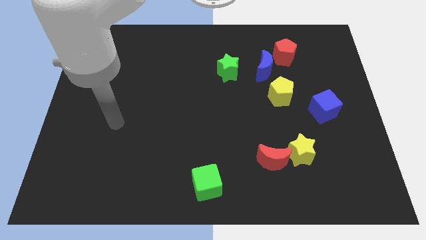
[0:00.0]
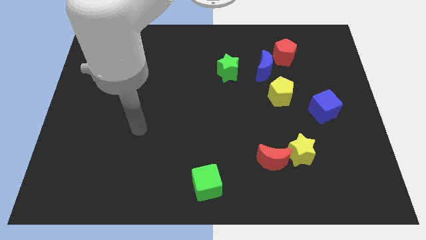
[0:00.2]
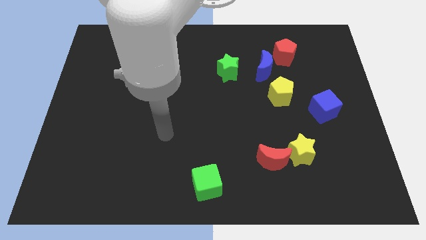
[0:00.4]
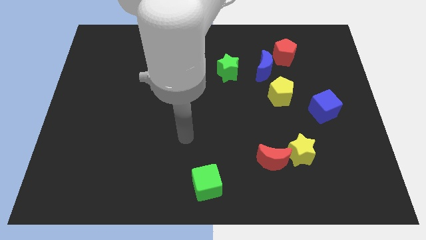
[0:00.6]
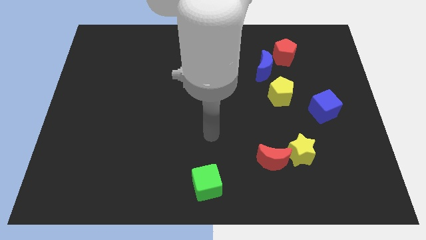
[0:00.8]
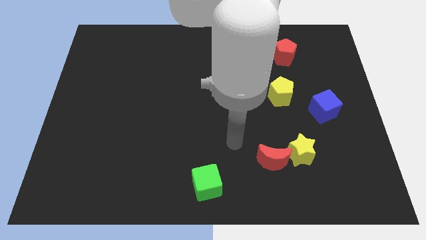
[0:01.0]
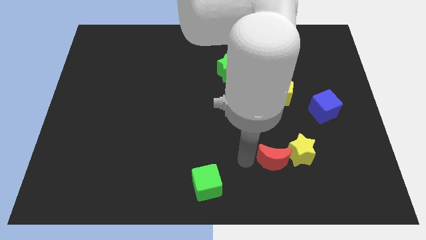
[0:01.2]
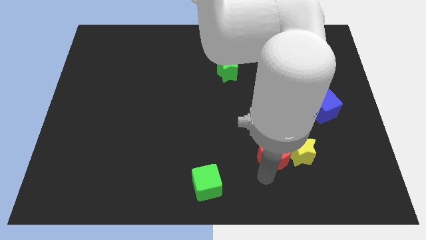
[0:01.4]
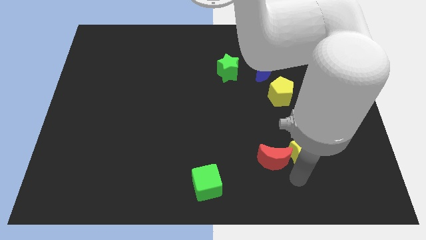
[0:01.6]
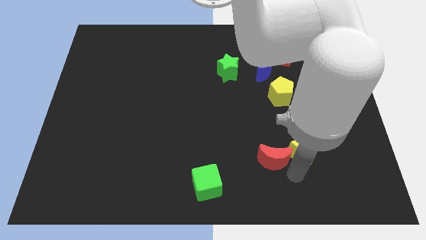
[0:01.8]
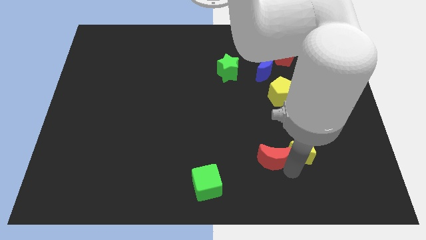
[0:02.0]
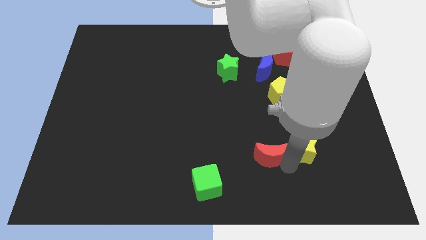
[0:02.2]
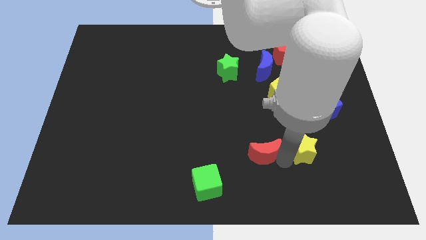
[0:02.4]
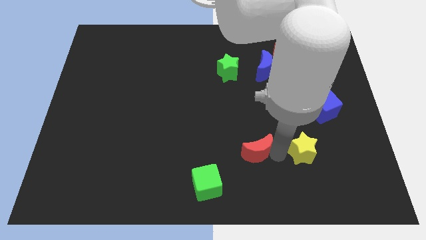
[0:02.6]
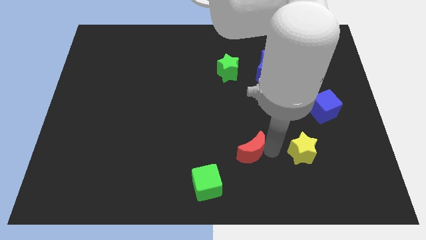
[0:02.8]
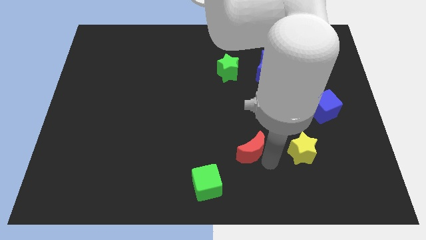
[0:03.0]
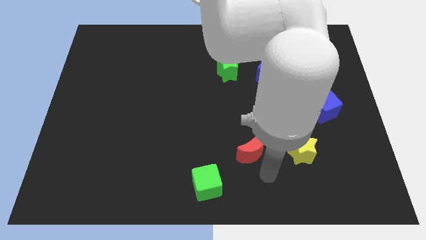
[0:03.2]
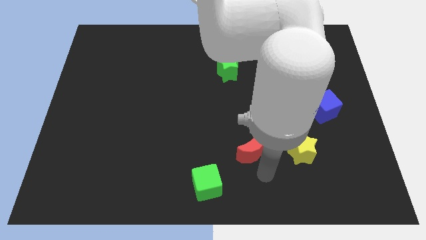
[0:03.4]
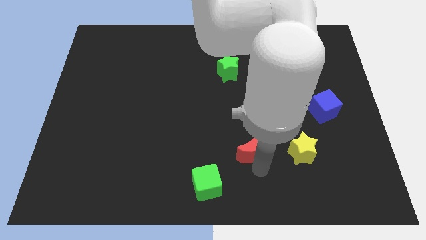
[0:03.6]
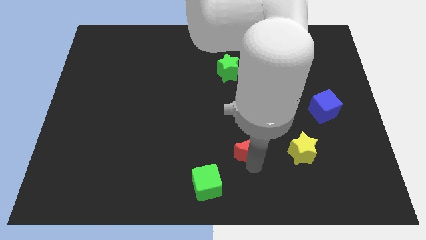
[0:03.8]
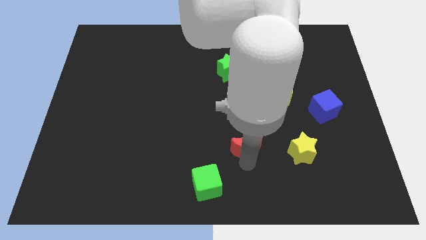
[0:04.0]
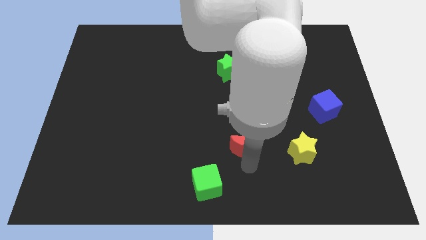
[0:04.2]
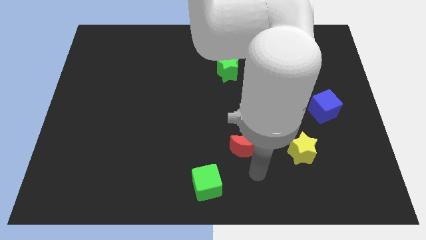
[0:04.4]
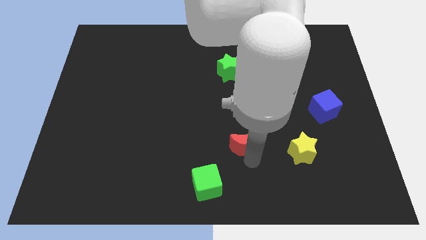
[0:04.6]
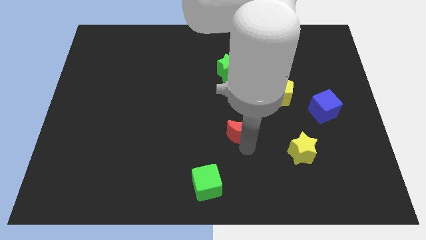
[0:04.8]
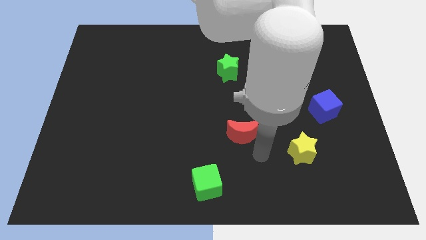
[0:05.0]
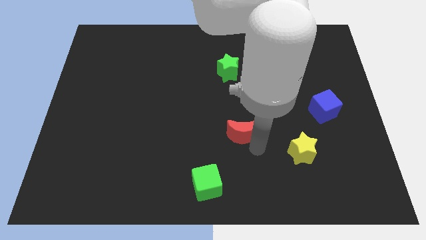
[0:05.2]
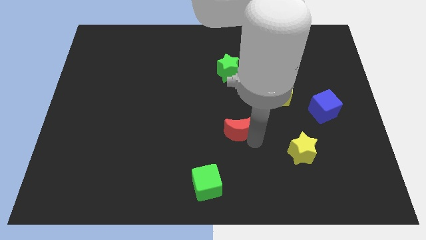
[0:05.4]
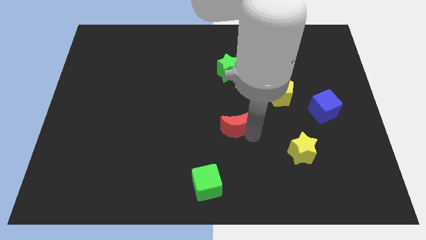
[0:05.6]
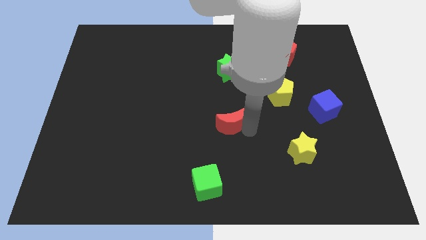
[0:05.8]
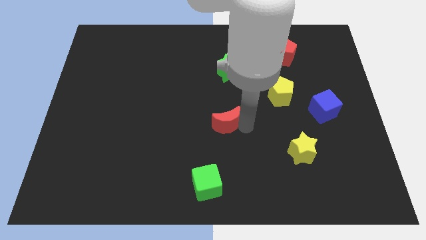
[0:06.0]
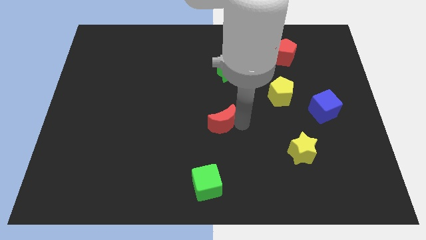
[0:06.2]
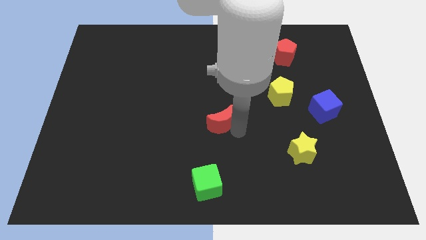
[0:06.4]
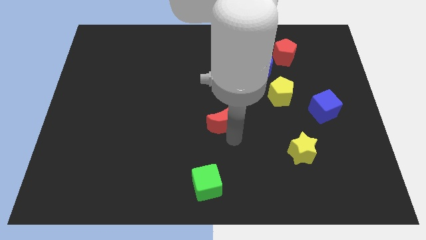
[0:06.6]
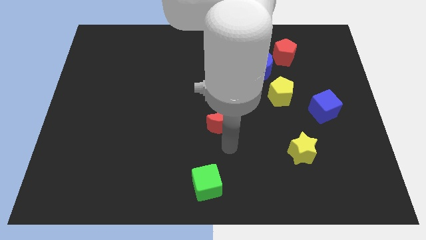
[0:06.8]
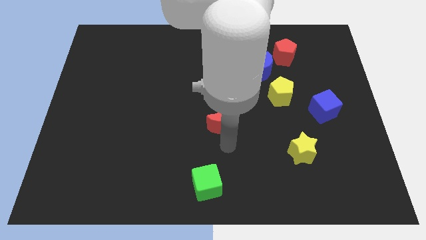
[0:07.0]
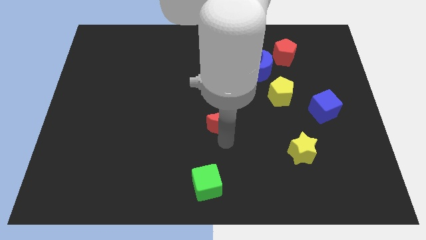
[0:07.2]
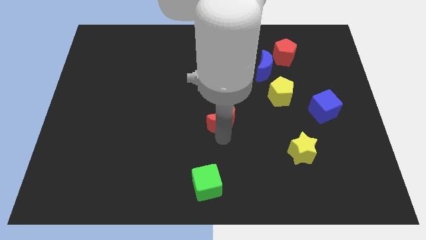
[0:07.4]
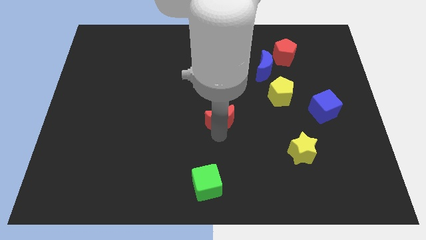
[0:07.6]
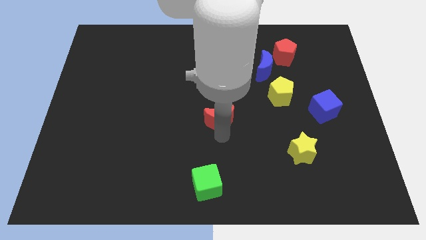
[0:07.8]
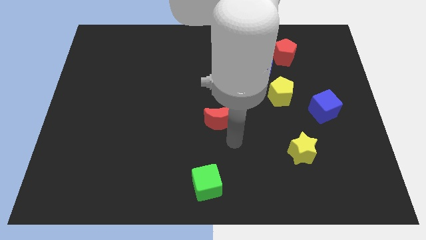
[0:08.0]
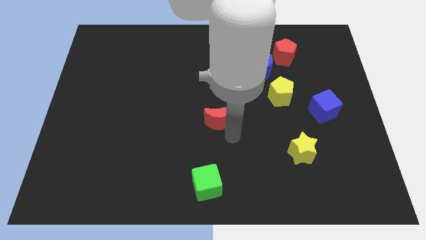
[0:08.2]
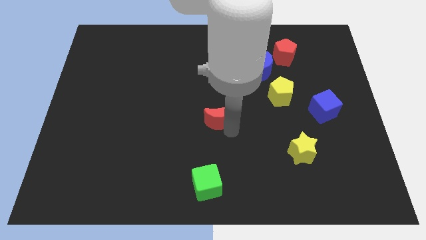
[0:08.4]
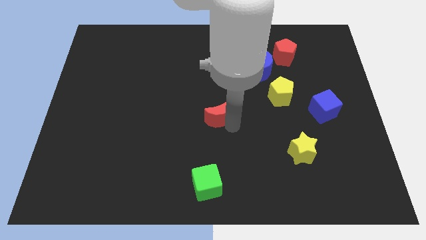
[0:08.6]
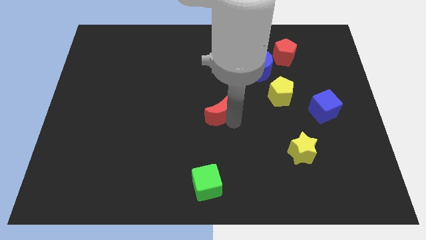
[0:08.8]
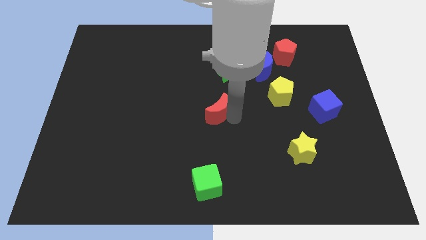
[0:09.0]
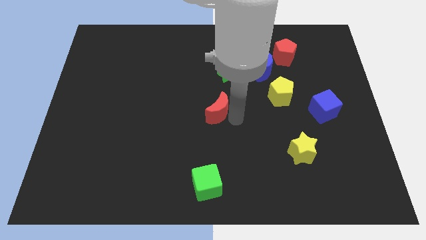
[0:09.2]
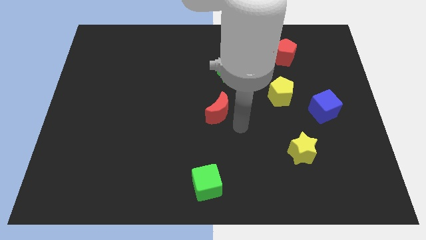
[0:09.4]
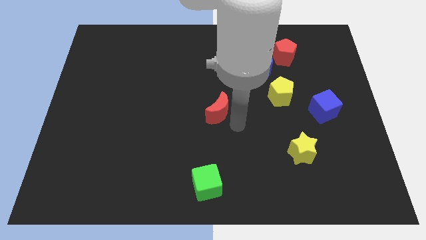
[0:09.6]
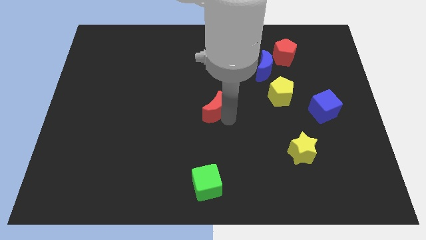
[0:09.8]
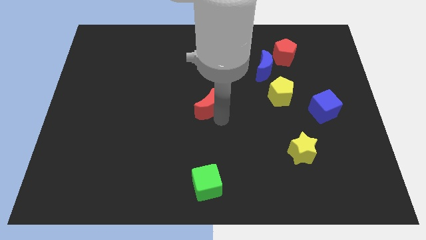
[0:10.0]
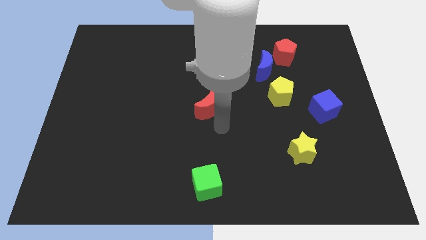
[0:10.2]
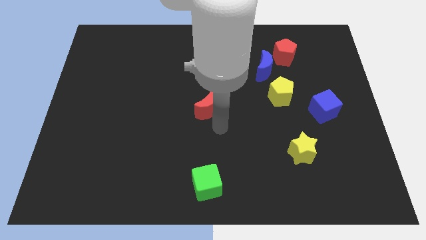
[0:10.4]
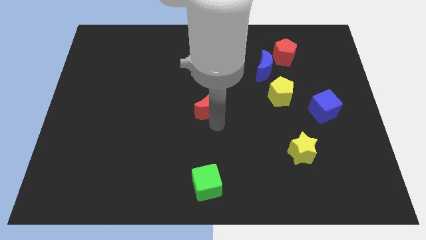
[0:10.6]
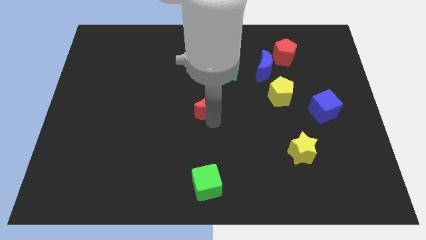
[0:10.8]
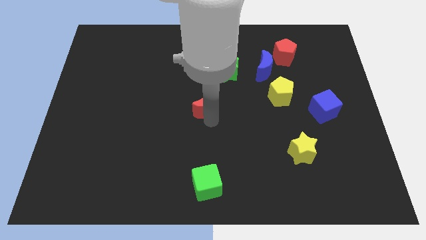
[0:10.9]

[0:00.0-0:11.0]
push the red moon diagonally up and left

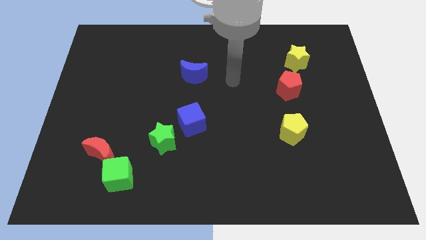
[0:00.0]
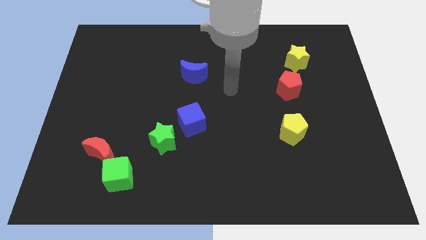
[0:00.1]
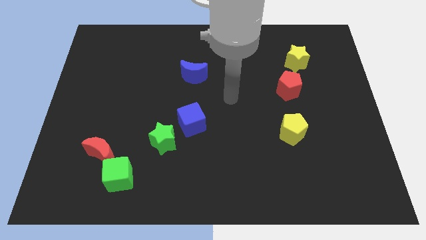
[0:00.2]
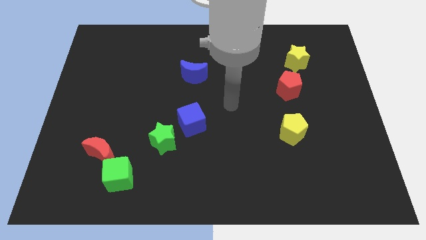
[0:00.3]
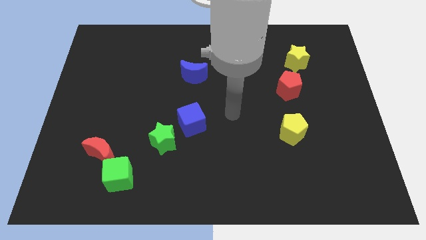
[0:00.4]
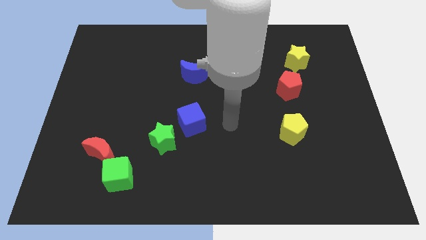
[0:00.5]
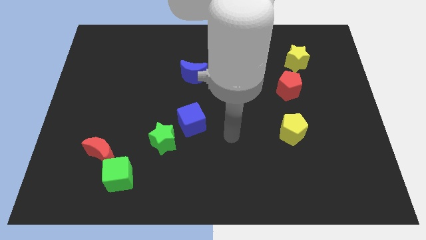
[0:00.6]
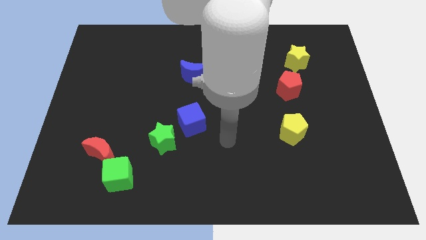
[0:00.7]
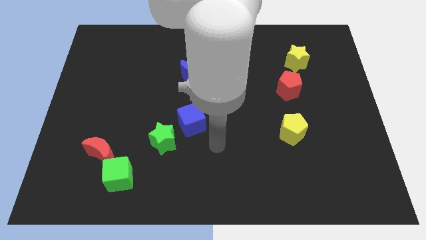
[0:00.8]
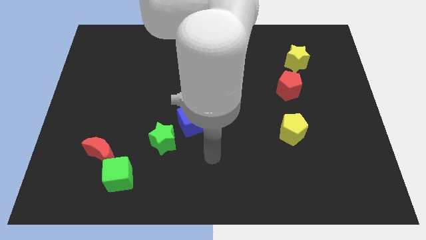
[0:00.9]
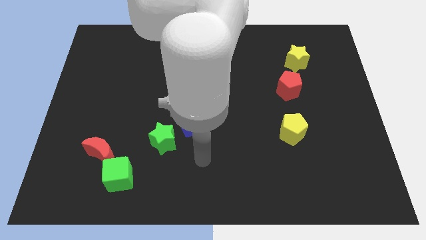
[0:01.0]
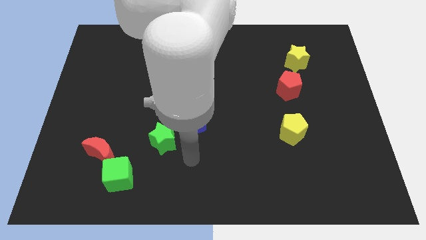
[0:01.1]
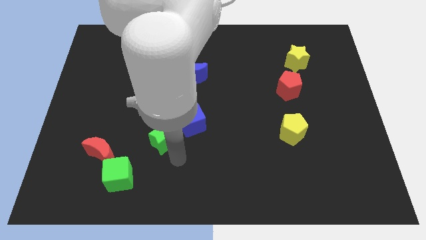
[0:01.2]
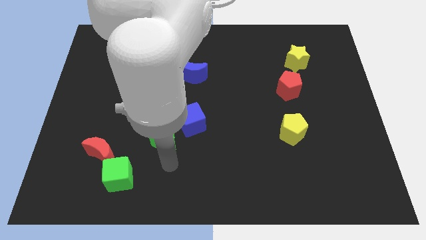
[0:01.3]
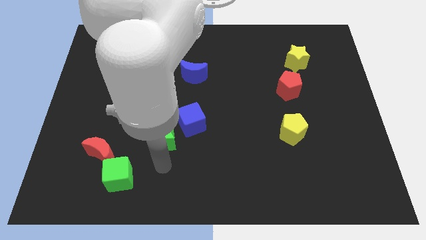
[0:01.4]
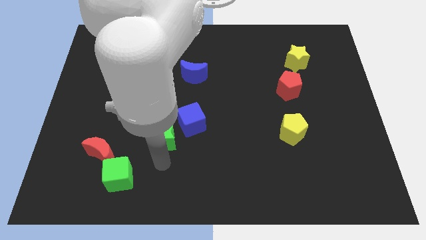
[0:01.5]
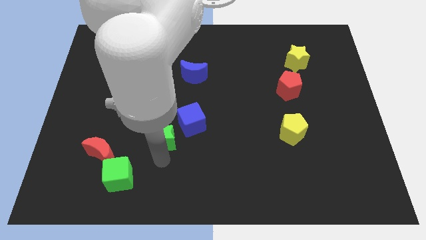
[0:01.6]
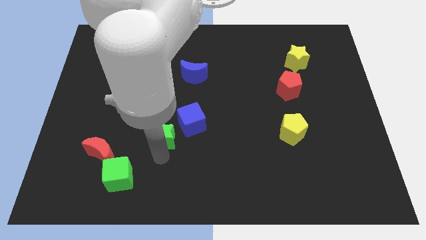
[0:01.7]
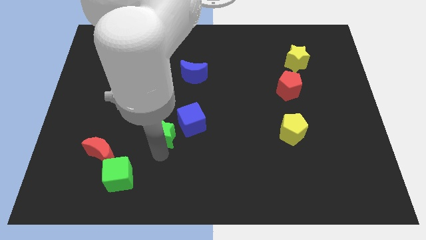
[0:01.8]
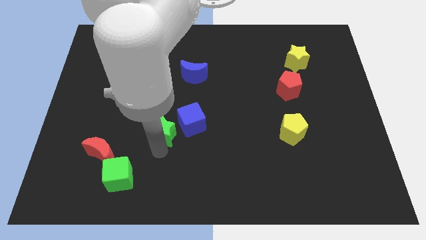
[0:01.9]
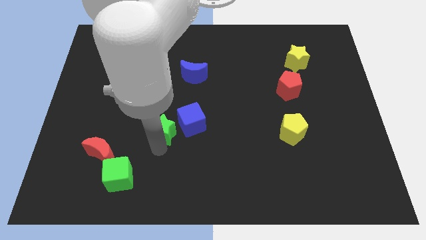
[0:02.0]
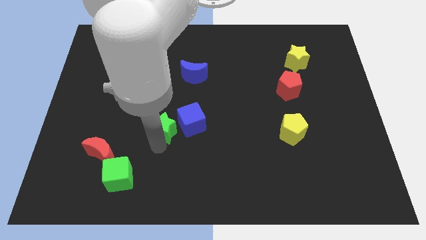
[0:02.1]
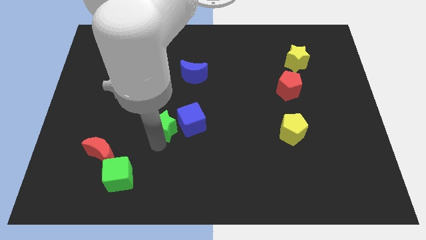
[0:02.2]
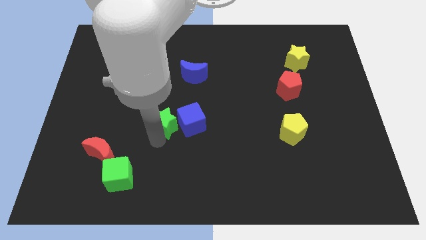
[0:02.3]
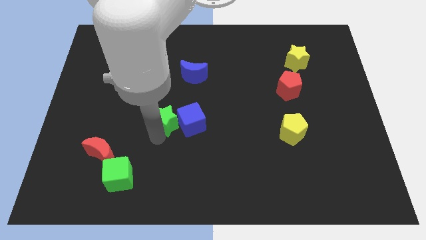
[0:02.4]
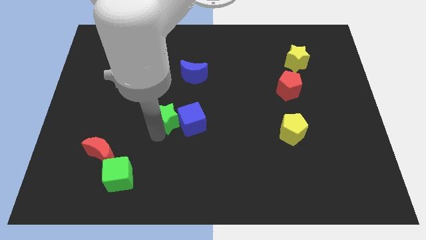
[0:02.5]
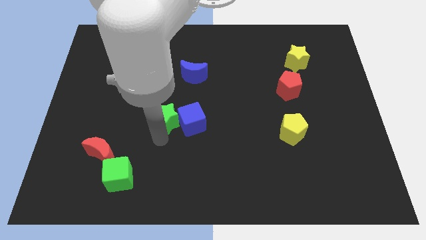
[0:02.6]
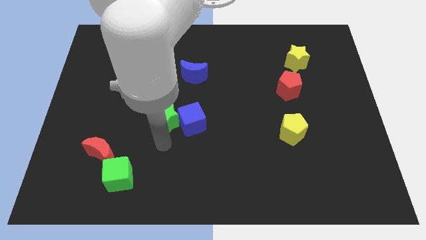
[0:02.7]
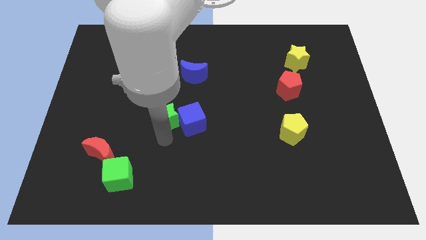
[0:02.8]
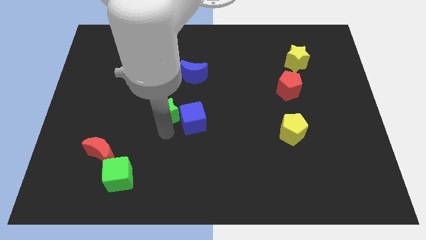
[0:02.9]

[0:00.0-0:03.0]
move the green star up somewhat
